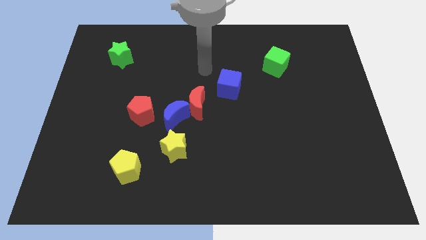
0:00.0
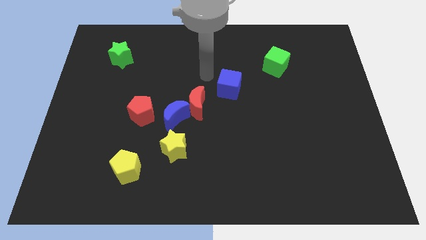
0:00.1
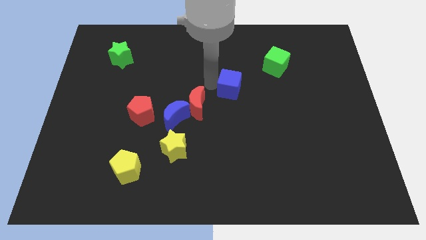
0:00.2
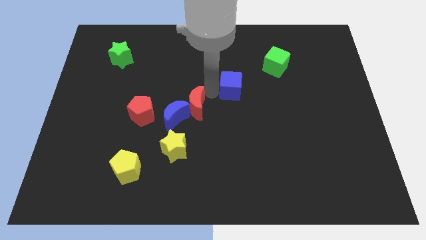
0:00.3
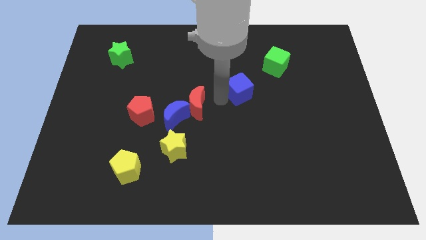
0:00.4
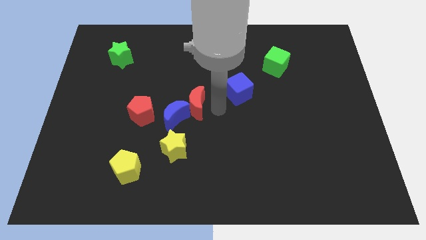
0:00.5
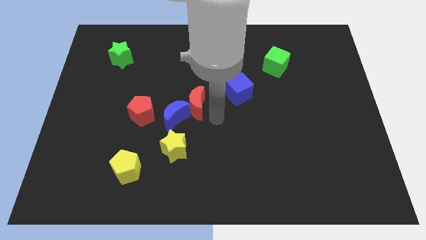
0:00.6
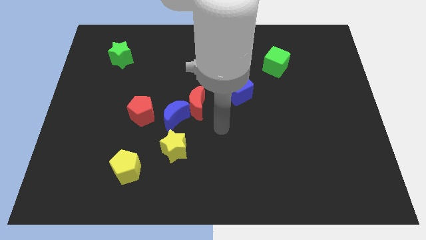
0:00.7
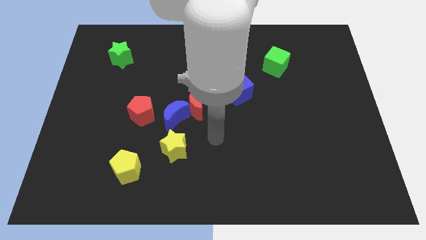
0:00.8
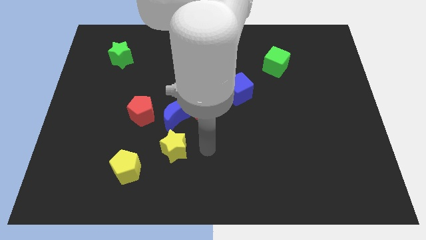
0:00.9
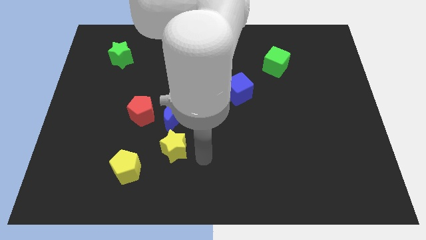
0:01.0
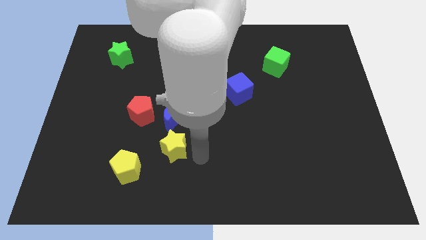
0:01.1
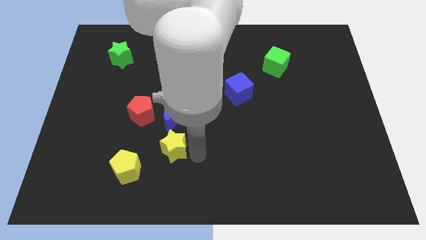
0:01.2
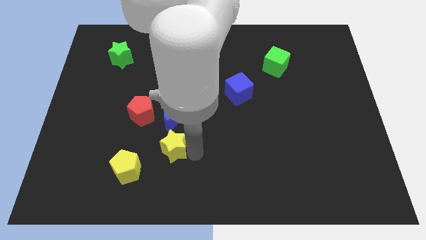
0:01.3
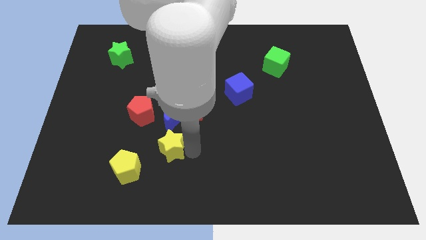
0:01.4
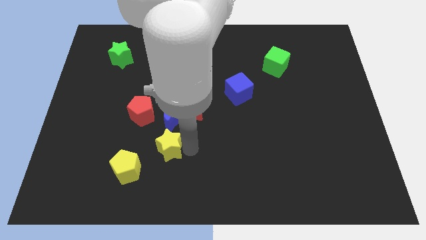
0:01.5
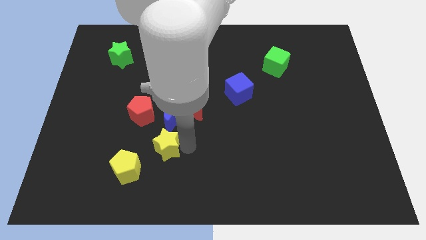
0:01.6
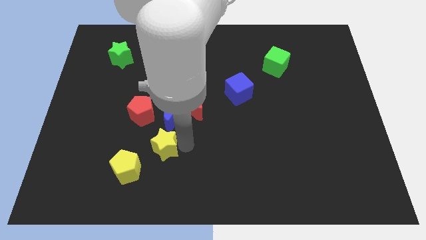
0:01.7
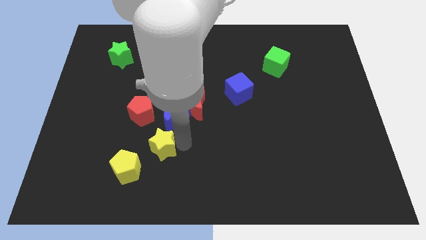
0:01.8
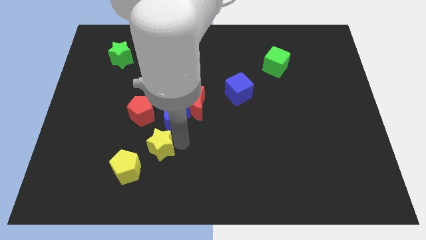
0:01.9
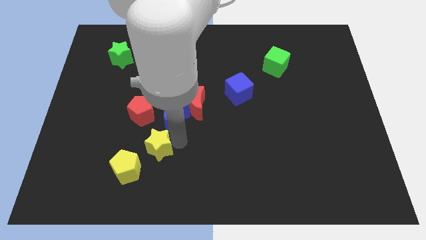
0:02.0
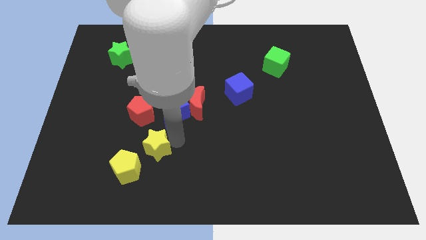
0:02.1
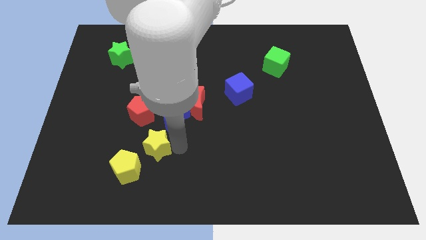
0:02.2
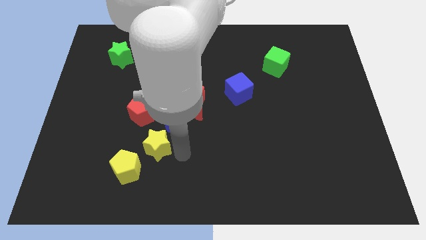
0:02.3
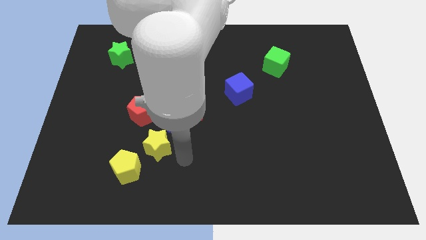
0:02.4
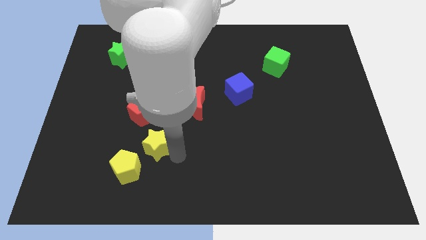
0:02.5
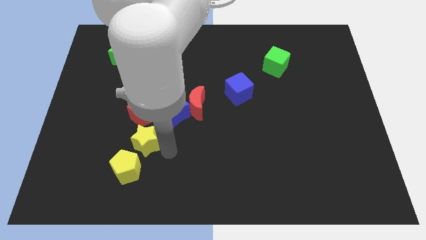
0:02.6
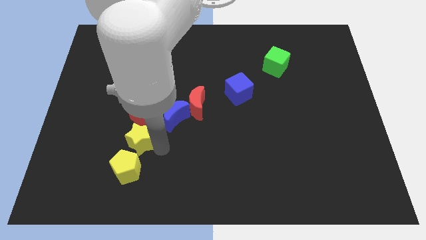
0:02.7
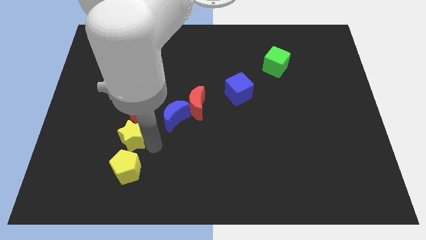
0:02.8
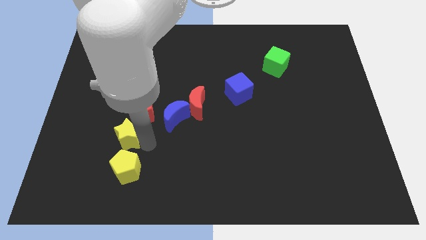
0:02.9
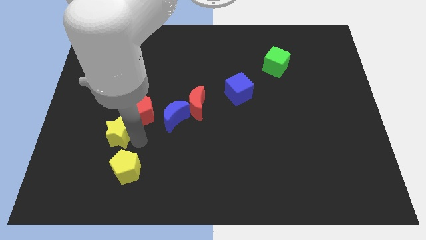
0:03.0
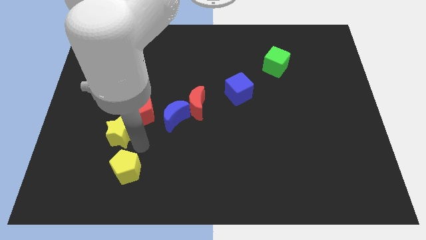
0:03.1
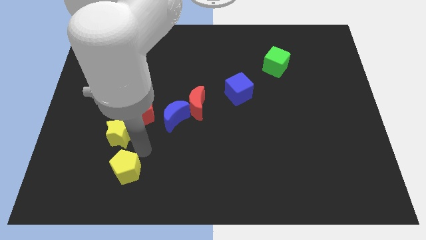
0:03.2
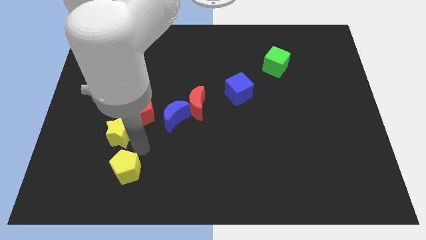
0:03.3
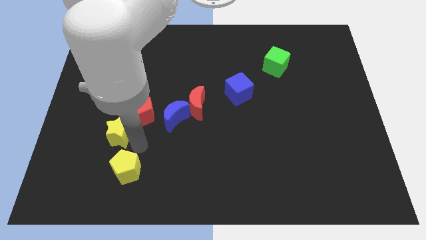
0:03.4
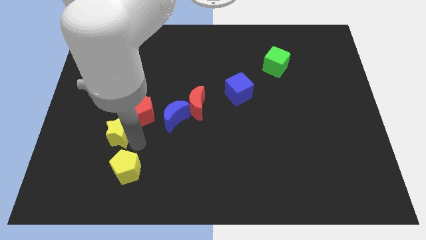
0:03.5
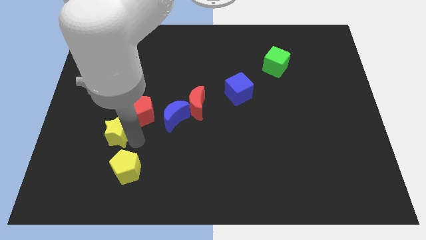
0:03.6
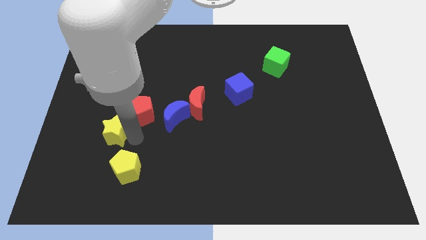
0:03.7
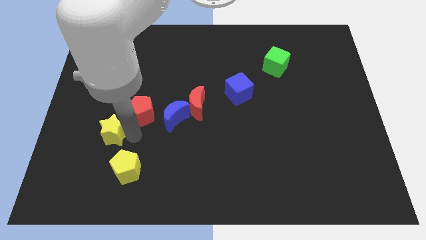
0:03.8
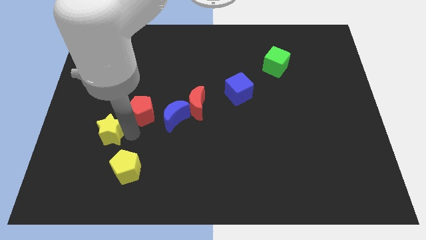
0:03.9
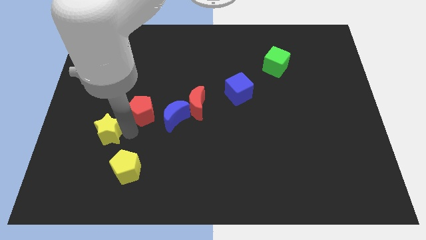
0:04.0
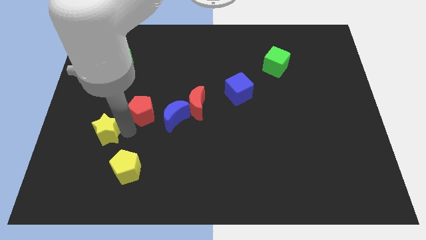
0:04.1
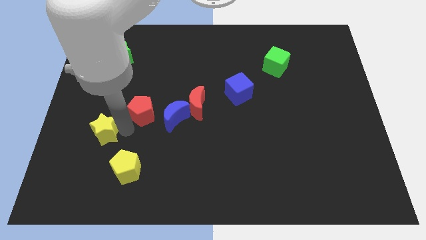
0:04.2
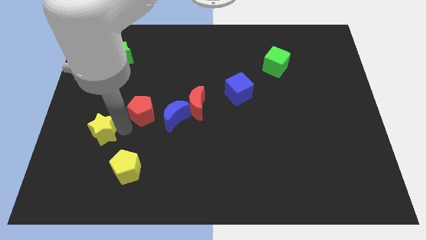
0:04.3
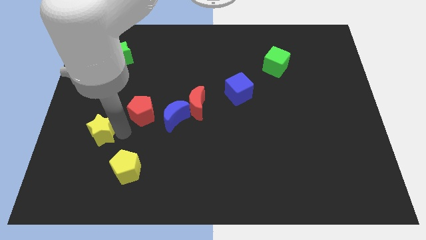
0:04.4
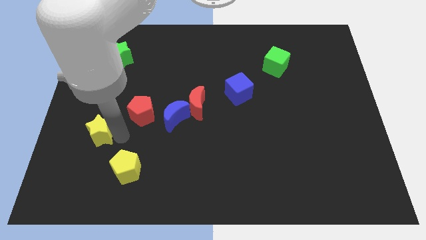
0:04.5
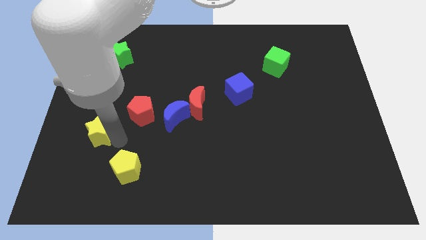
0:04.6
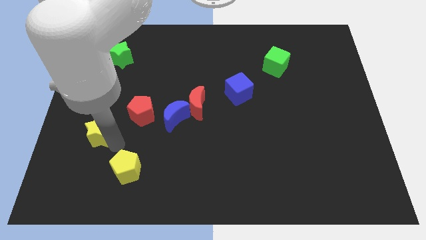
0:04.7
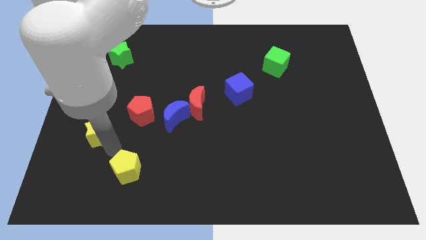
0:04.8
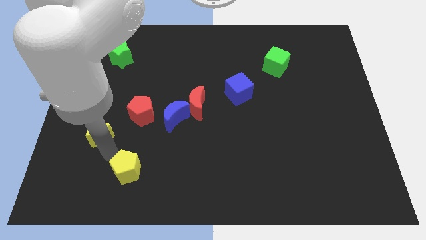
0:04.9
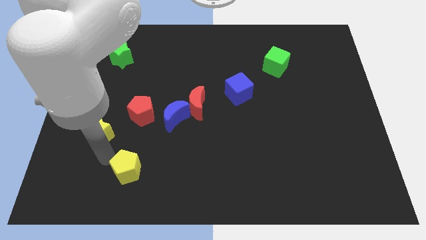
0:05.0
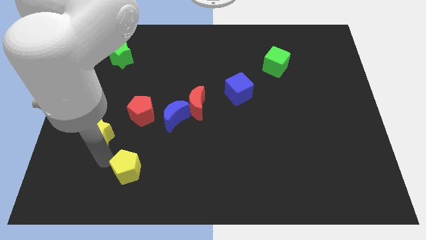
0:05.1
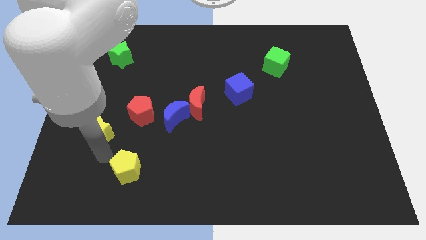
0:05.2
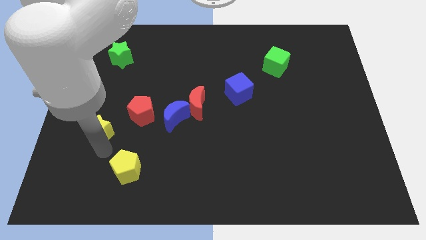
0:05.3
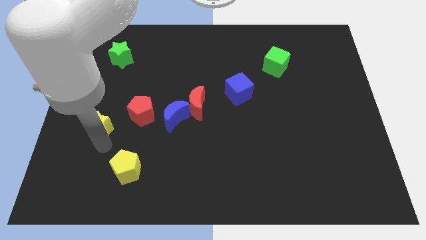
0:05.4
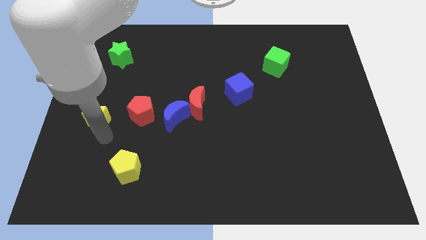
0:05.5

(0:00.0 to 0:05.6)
slide the yellow star to the left side of the board
